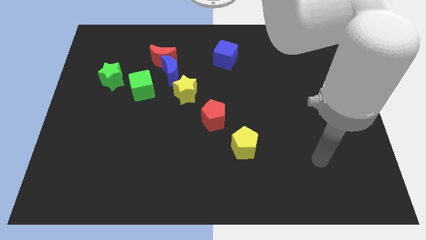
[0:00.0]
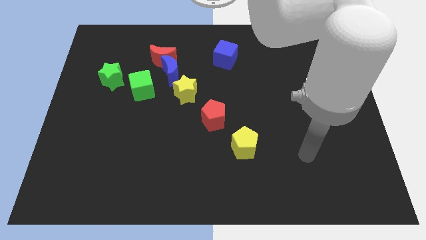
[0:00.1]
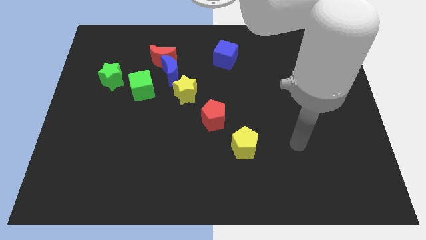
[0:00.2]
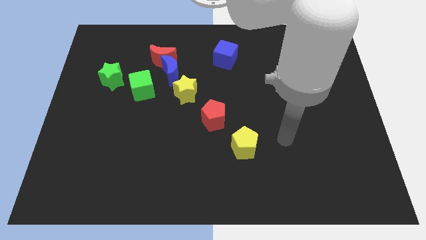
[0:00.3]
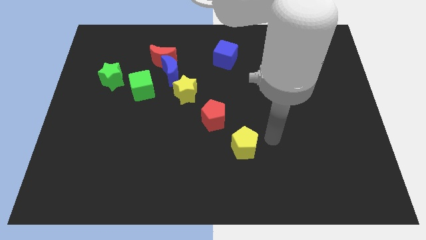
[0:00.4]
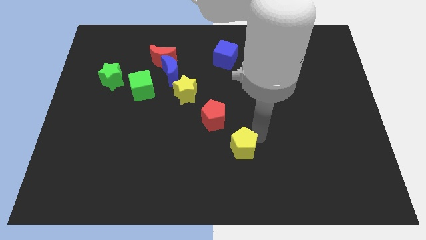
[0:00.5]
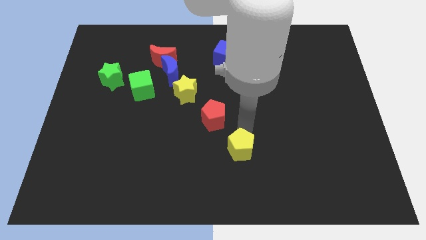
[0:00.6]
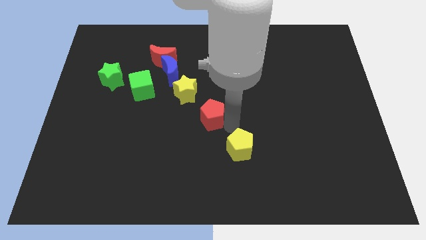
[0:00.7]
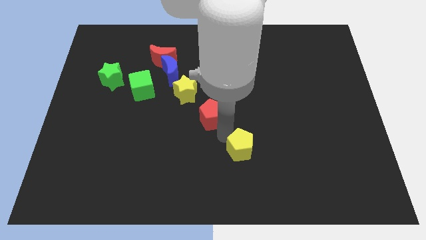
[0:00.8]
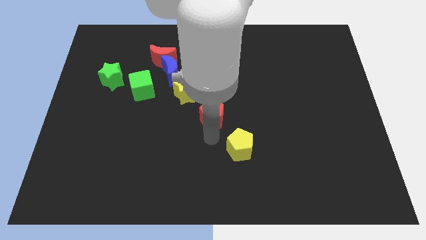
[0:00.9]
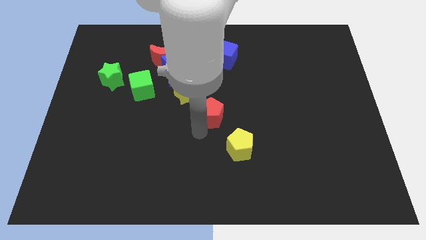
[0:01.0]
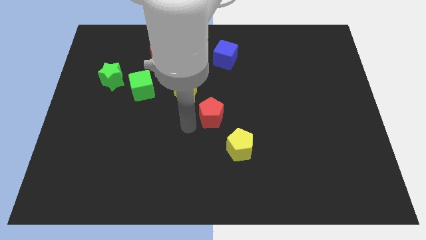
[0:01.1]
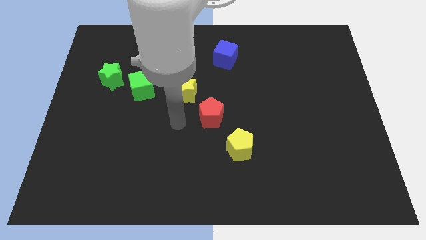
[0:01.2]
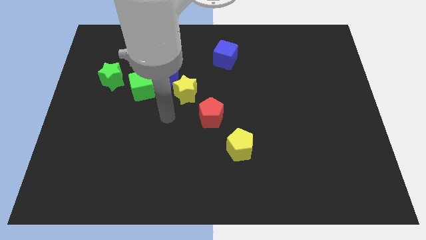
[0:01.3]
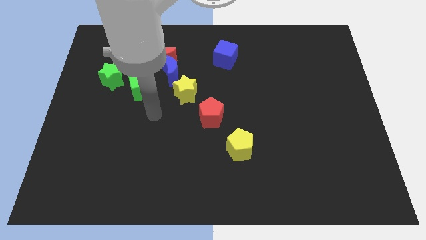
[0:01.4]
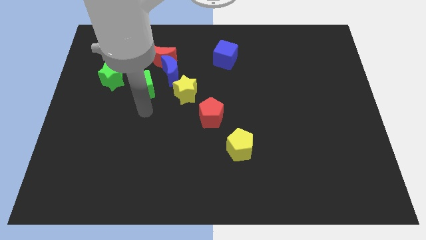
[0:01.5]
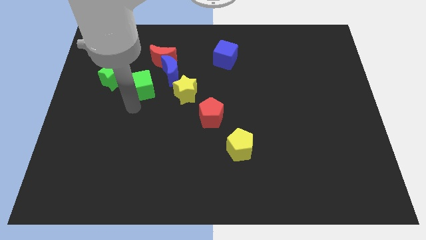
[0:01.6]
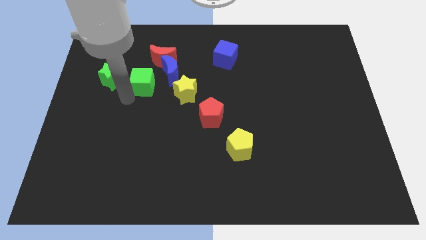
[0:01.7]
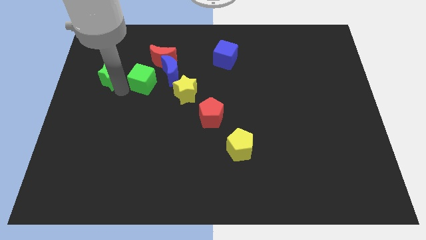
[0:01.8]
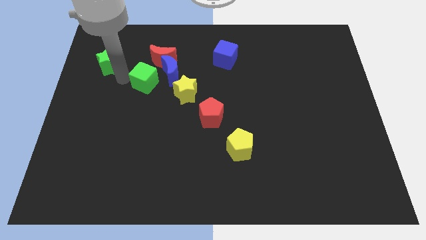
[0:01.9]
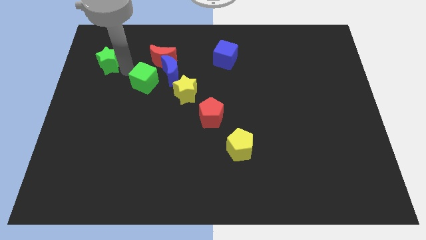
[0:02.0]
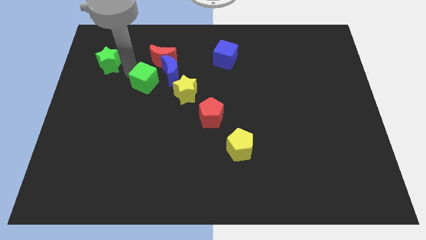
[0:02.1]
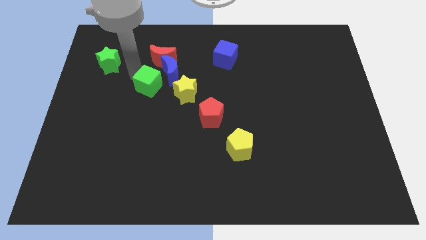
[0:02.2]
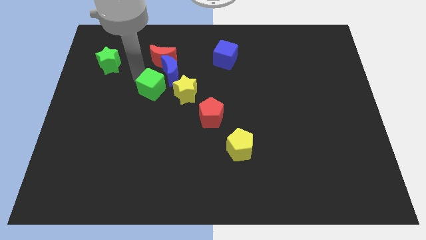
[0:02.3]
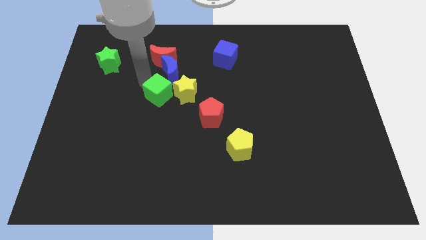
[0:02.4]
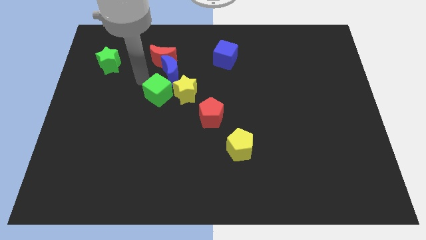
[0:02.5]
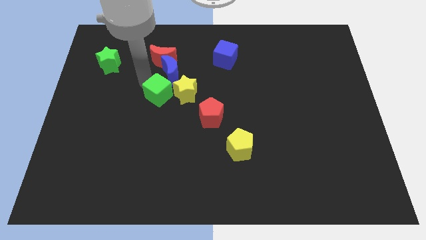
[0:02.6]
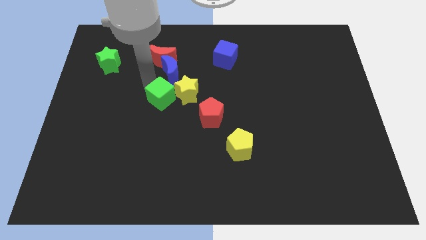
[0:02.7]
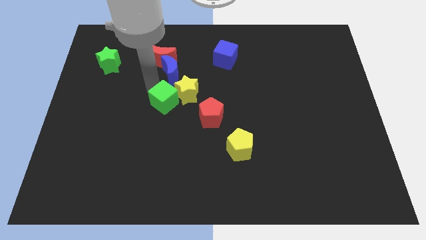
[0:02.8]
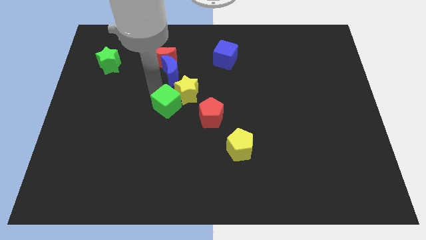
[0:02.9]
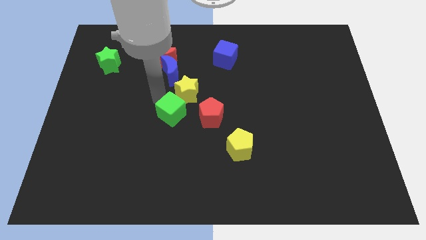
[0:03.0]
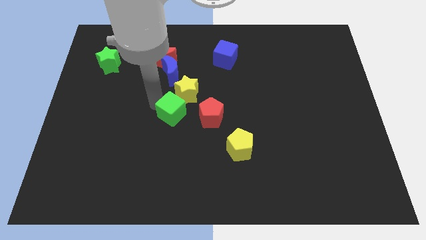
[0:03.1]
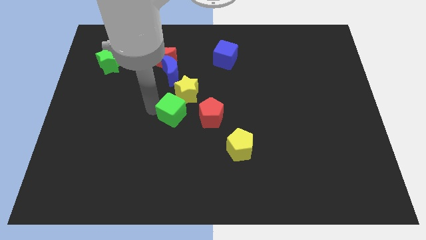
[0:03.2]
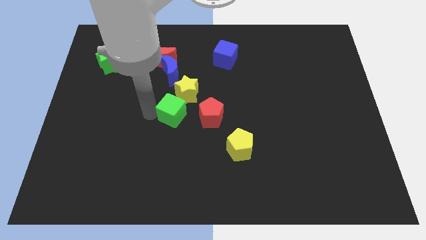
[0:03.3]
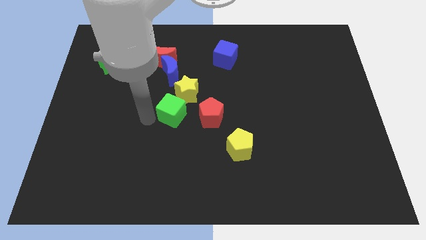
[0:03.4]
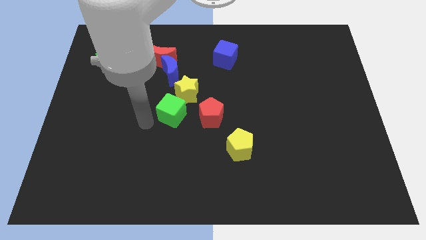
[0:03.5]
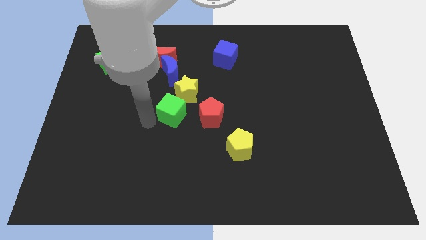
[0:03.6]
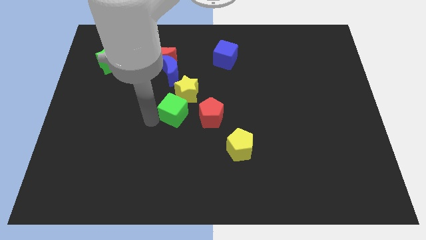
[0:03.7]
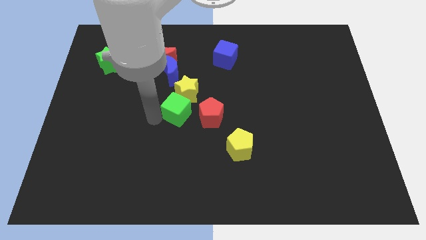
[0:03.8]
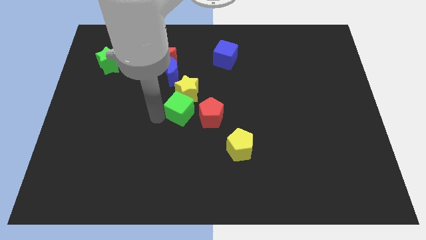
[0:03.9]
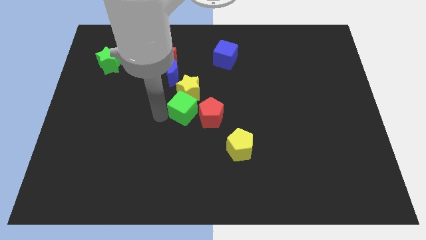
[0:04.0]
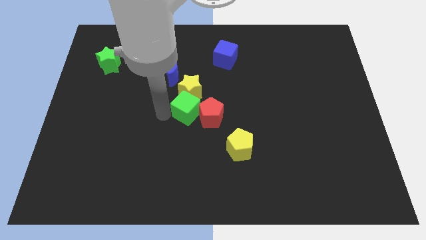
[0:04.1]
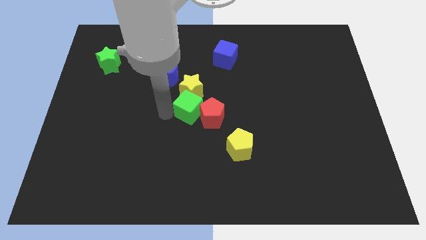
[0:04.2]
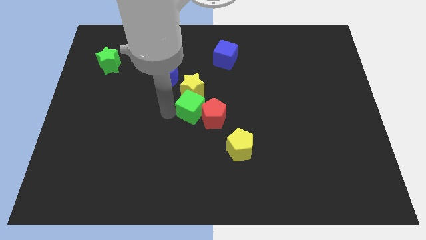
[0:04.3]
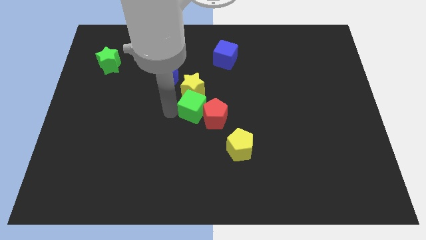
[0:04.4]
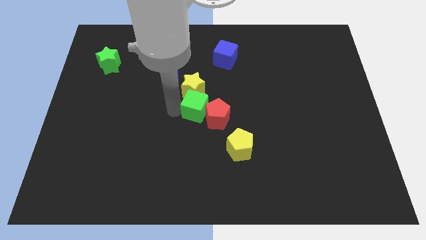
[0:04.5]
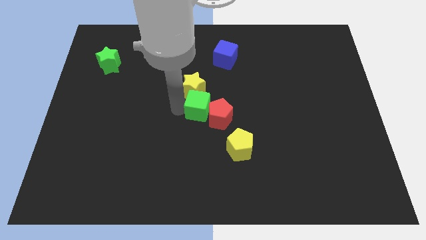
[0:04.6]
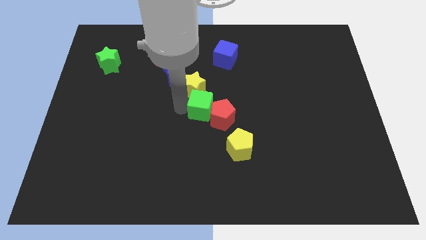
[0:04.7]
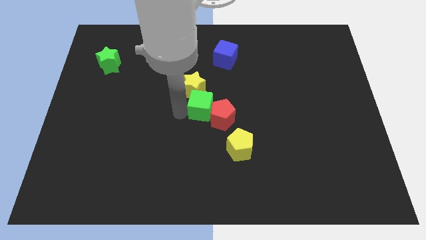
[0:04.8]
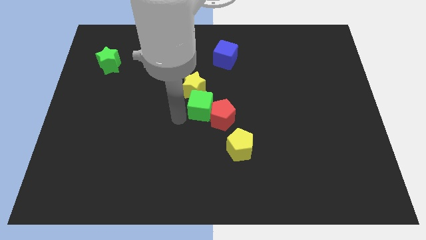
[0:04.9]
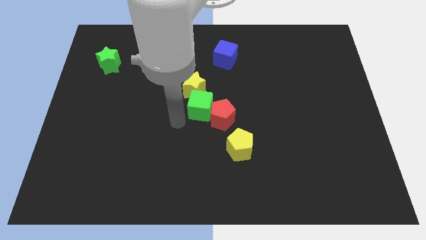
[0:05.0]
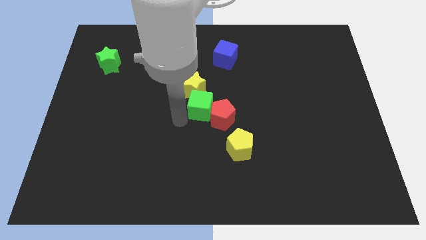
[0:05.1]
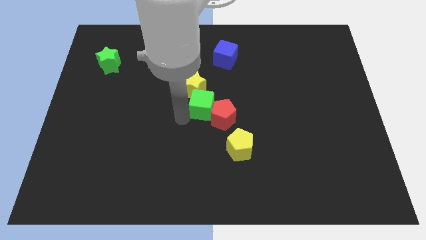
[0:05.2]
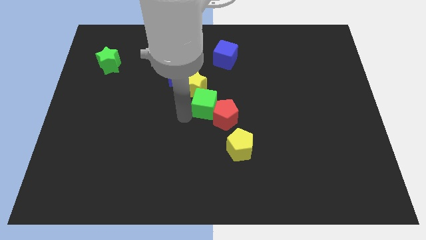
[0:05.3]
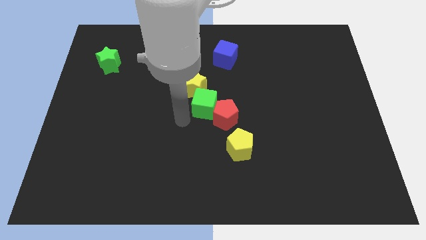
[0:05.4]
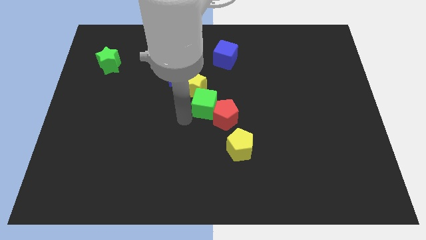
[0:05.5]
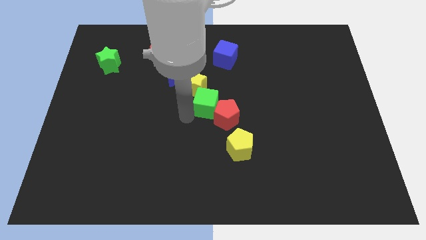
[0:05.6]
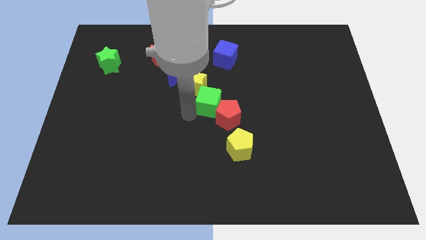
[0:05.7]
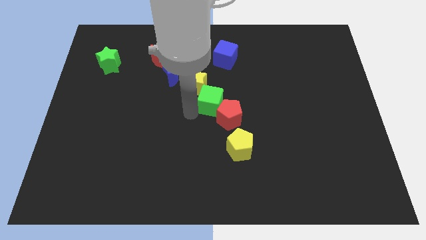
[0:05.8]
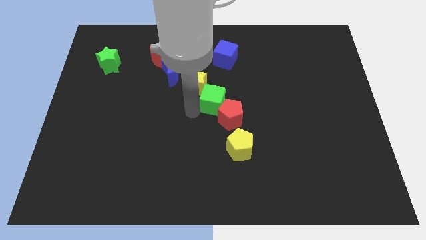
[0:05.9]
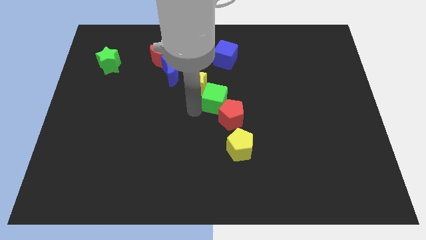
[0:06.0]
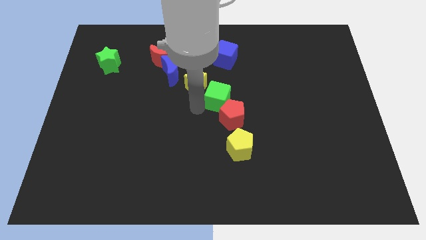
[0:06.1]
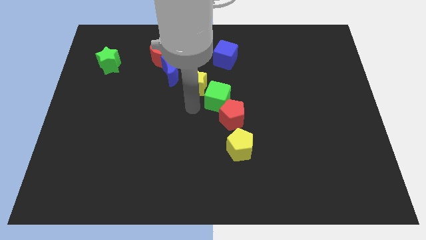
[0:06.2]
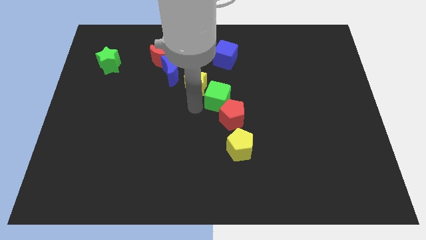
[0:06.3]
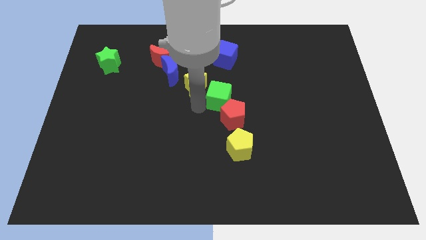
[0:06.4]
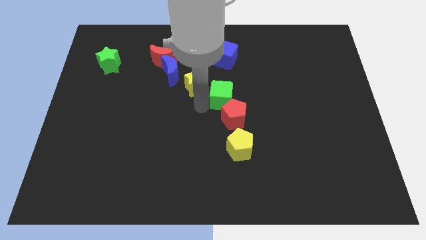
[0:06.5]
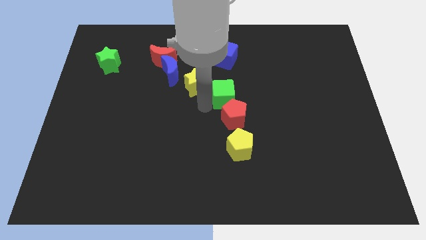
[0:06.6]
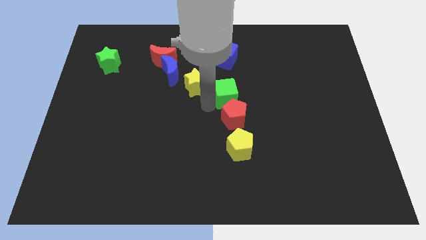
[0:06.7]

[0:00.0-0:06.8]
slide the green cube to the right

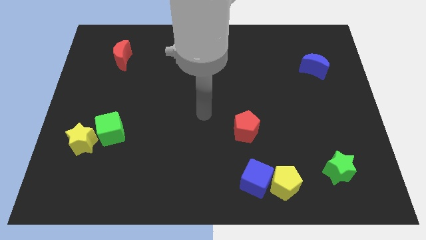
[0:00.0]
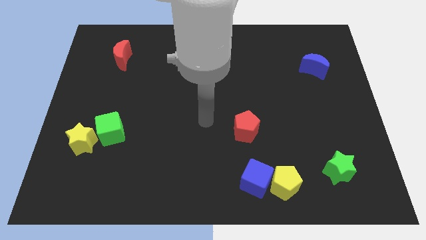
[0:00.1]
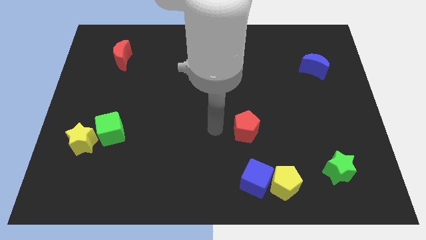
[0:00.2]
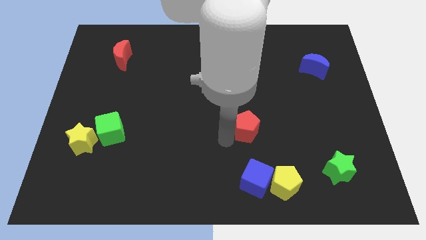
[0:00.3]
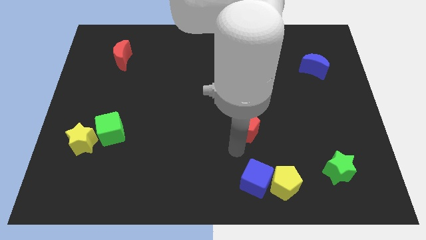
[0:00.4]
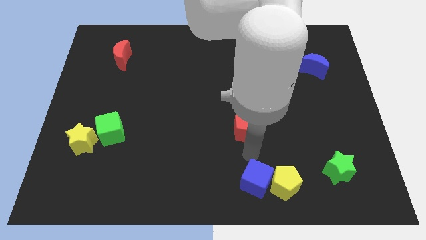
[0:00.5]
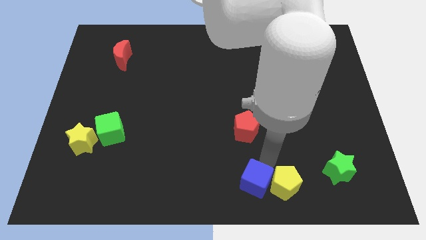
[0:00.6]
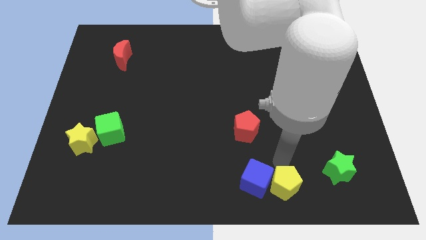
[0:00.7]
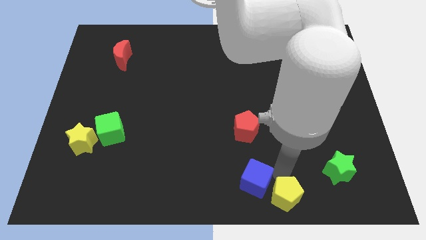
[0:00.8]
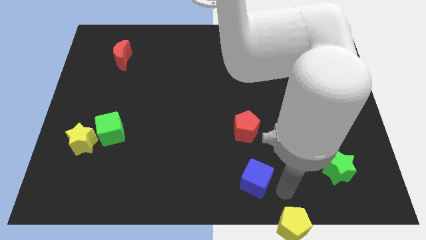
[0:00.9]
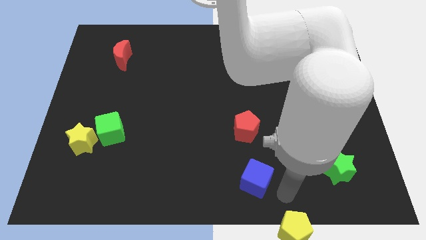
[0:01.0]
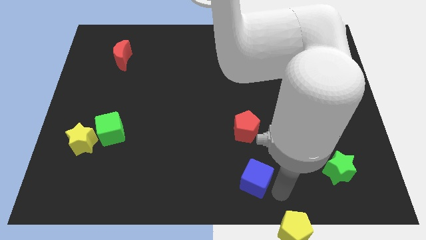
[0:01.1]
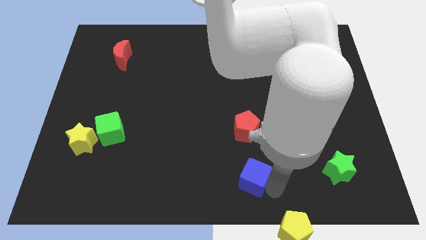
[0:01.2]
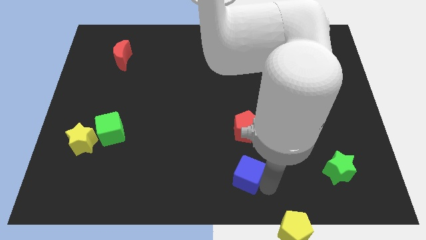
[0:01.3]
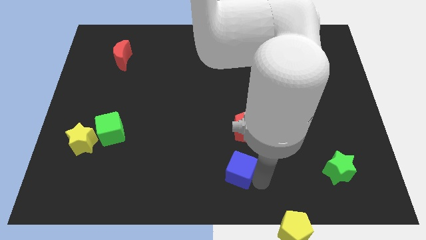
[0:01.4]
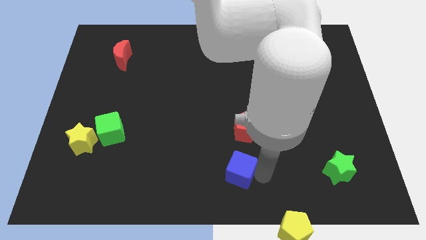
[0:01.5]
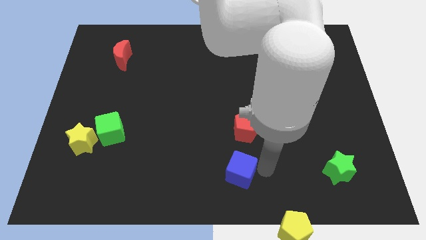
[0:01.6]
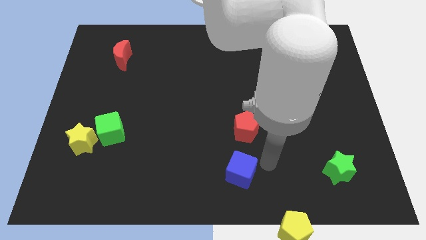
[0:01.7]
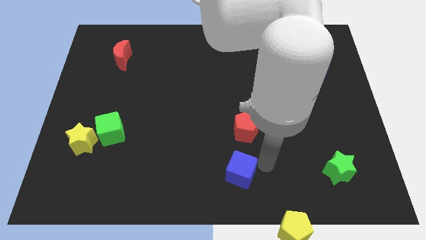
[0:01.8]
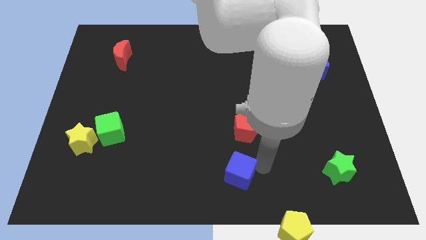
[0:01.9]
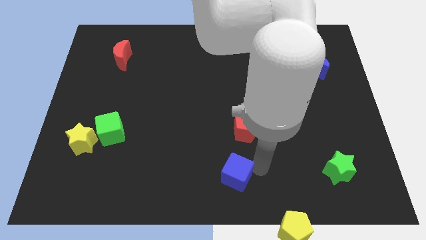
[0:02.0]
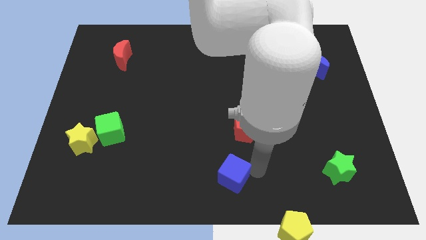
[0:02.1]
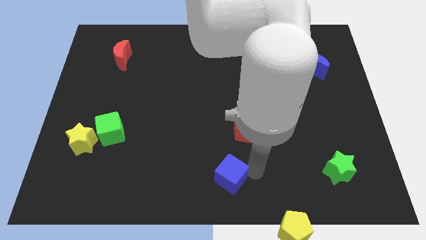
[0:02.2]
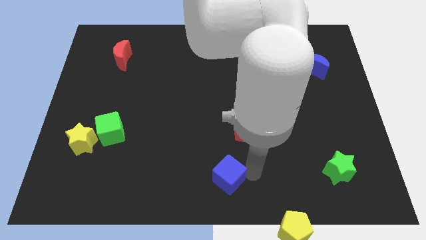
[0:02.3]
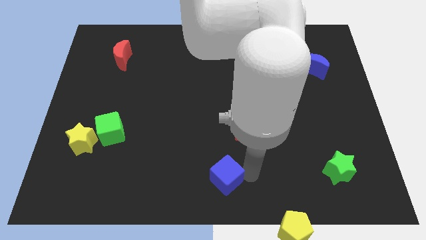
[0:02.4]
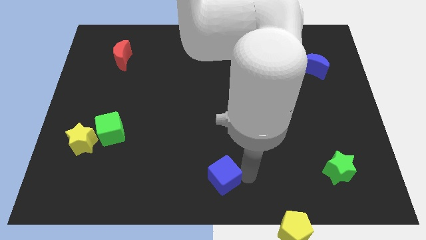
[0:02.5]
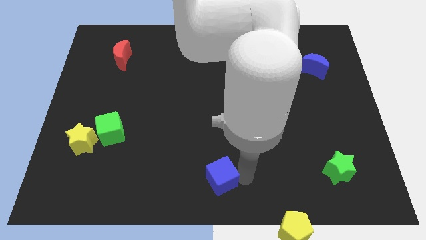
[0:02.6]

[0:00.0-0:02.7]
slightly slide the blue cube to the left
